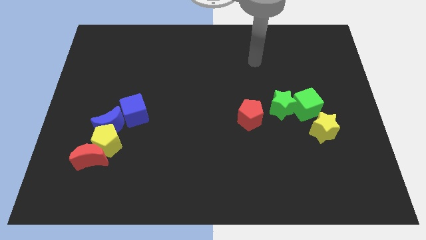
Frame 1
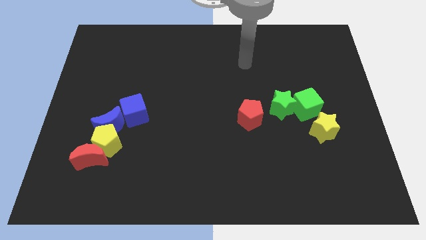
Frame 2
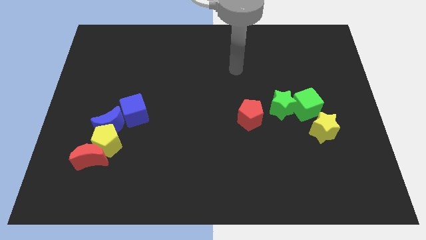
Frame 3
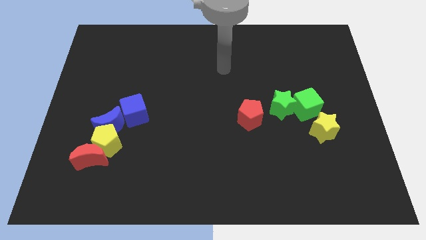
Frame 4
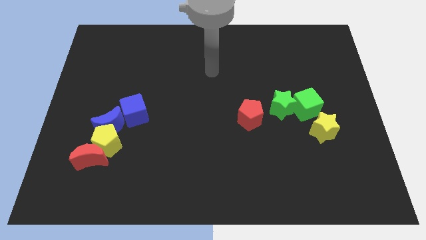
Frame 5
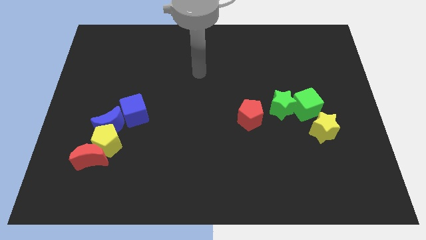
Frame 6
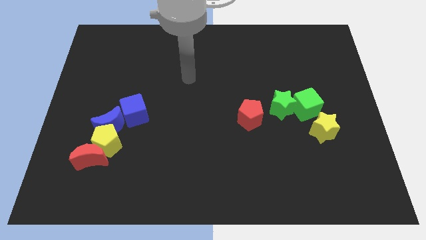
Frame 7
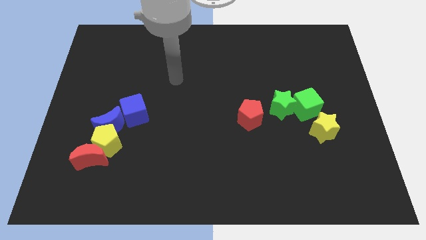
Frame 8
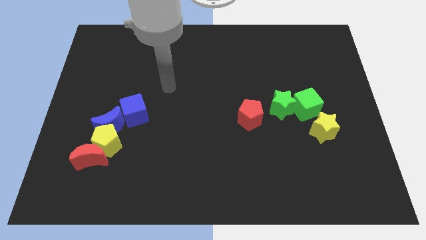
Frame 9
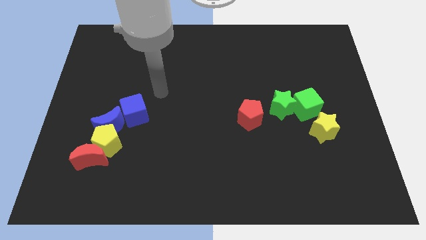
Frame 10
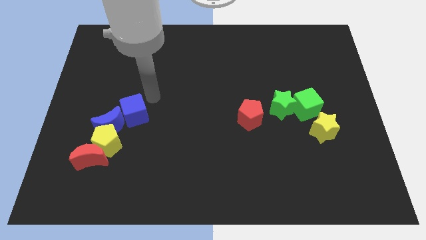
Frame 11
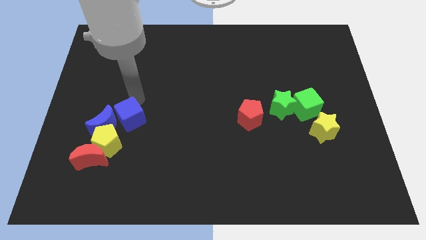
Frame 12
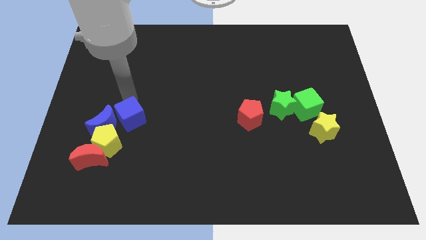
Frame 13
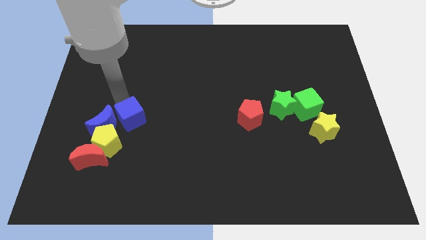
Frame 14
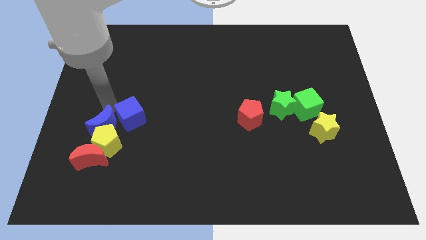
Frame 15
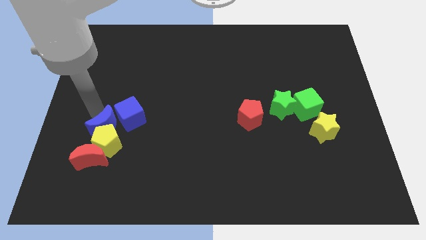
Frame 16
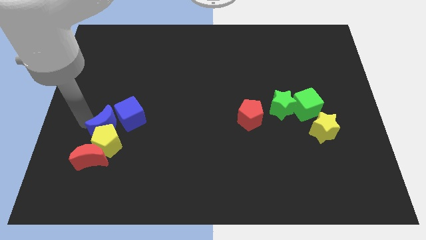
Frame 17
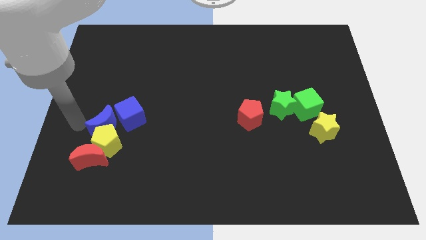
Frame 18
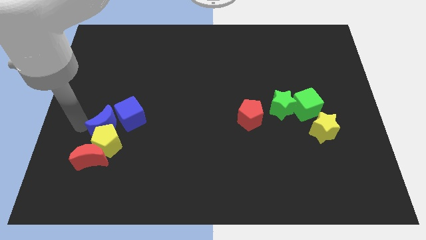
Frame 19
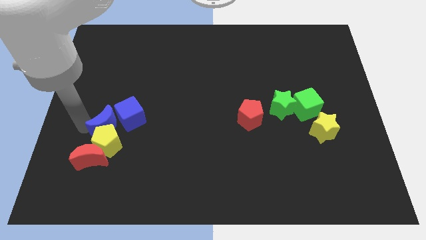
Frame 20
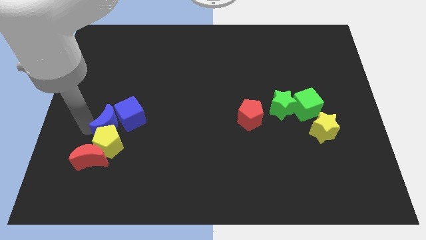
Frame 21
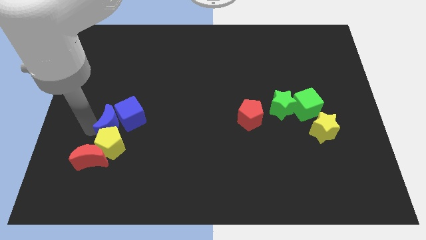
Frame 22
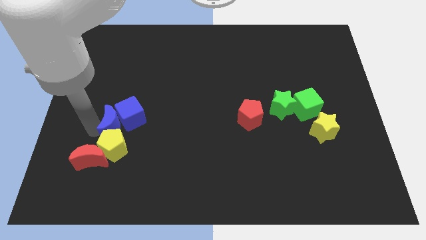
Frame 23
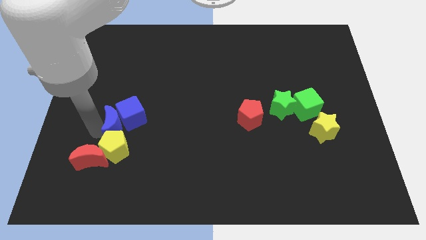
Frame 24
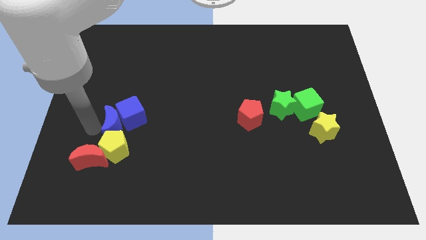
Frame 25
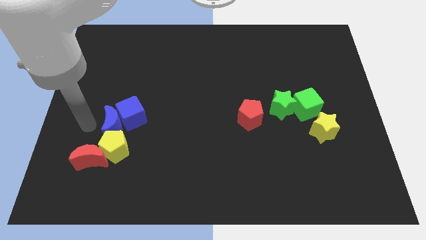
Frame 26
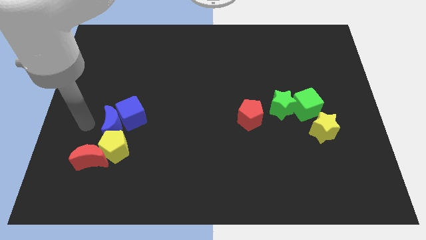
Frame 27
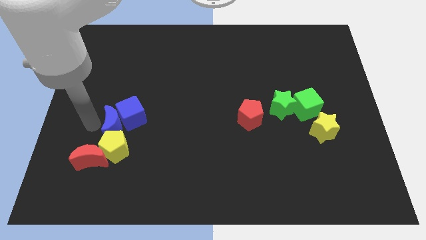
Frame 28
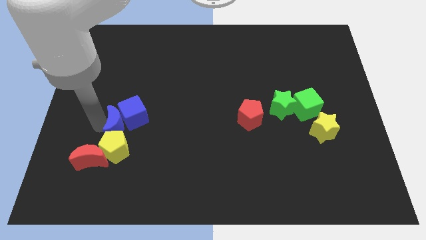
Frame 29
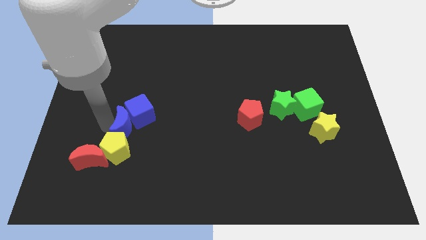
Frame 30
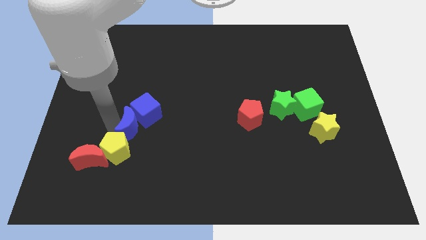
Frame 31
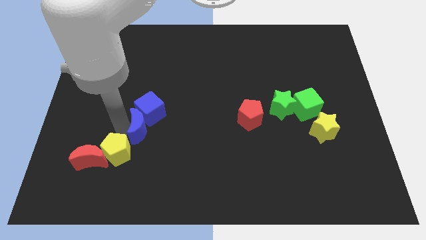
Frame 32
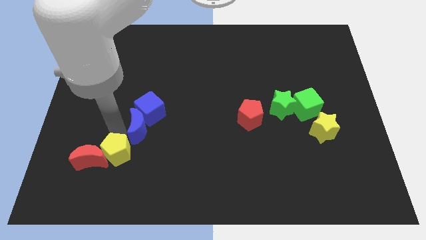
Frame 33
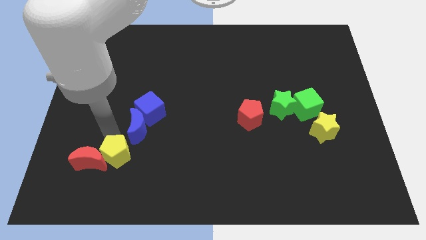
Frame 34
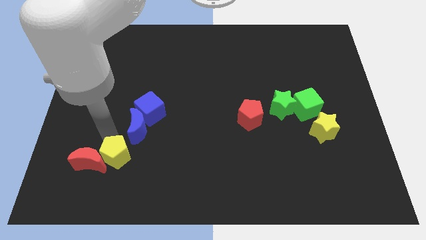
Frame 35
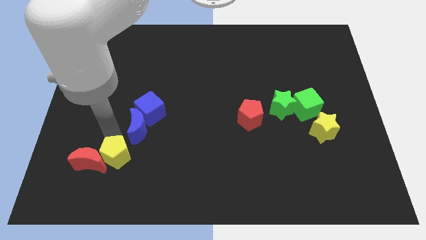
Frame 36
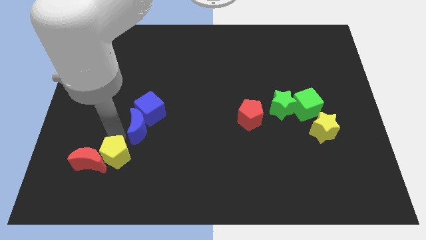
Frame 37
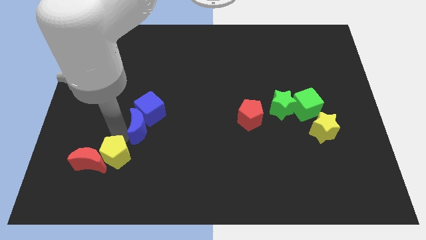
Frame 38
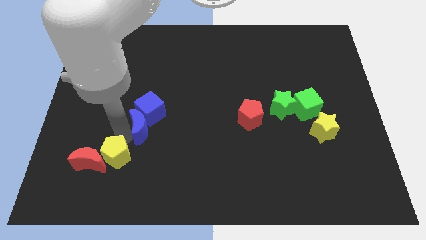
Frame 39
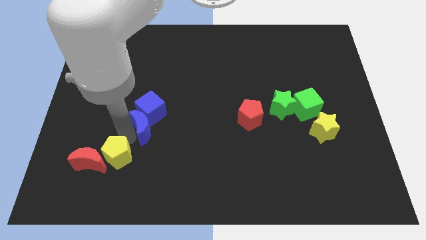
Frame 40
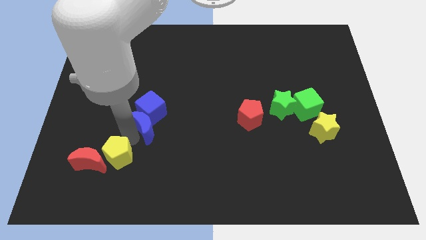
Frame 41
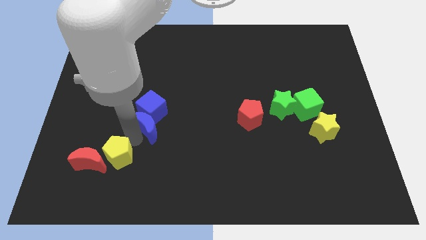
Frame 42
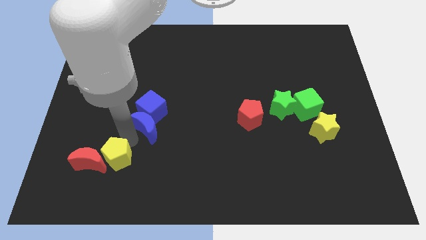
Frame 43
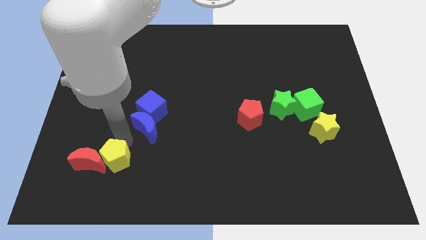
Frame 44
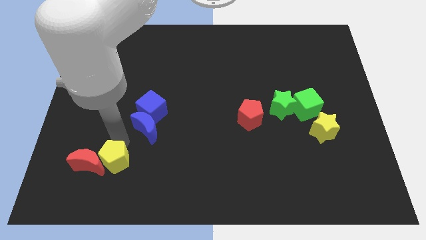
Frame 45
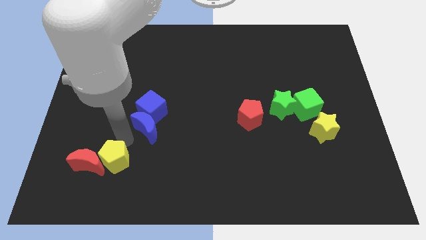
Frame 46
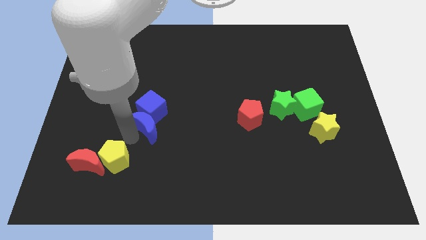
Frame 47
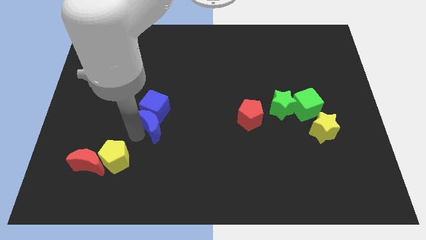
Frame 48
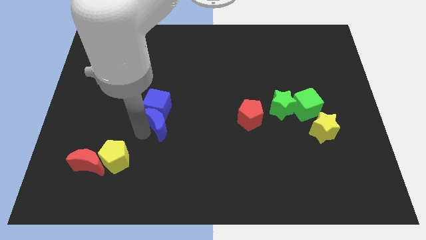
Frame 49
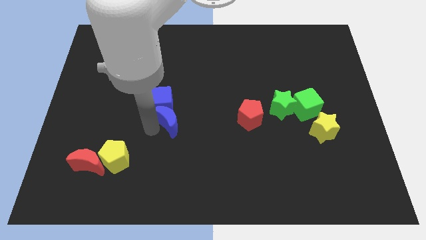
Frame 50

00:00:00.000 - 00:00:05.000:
move the blue moon to the middle

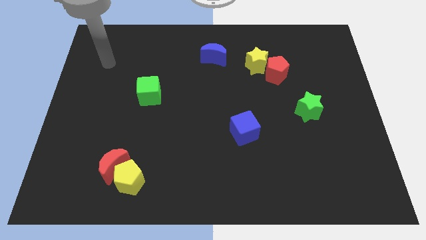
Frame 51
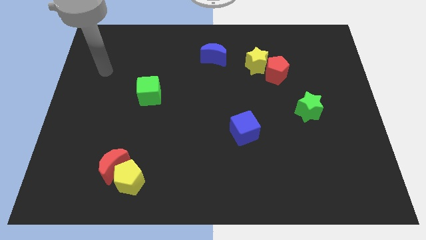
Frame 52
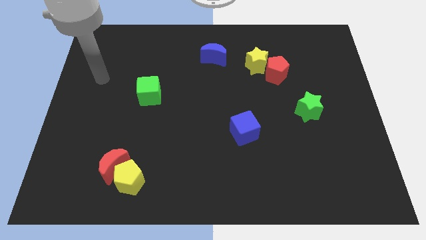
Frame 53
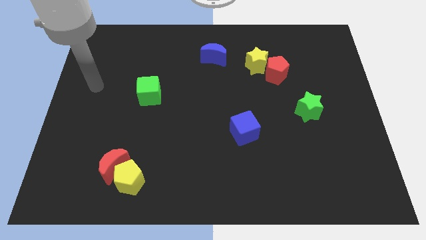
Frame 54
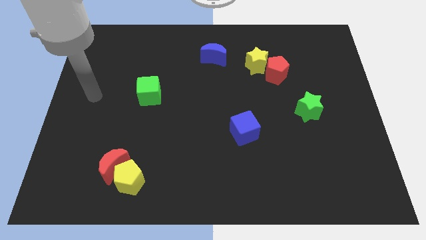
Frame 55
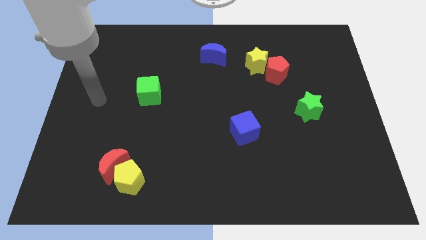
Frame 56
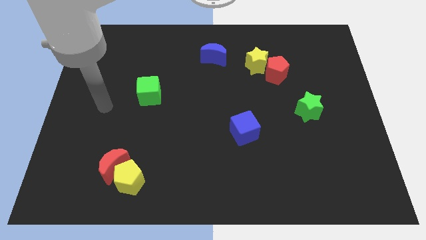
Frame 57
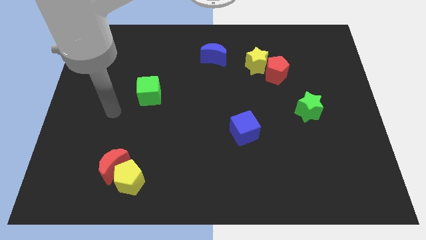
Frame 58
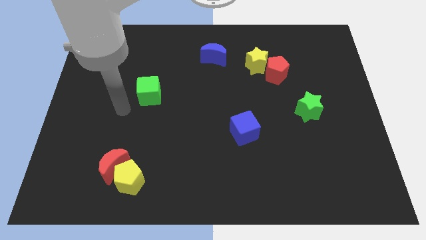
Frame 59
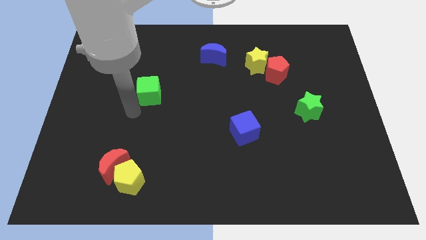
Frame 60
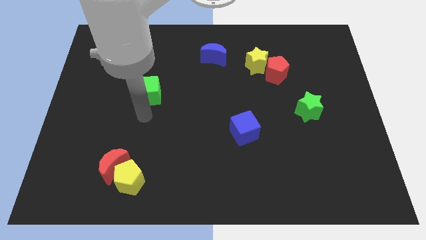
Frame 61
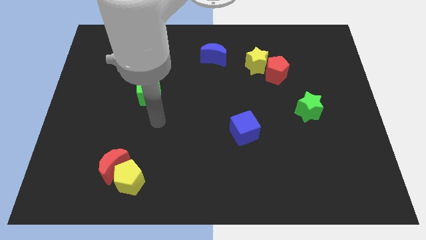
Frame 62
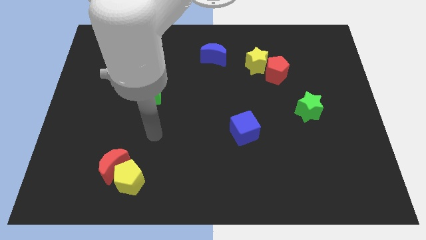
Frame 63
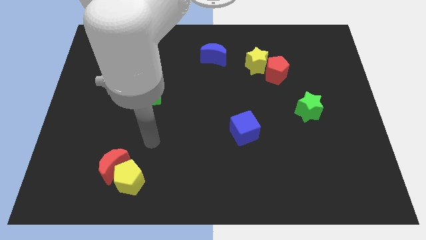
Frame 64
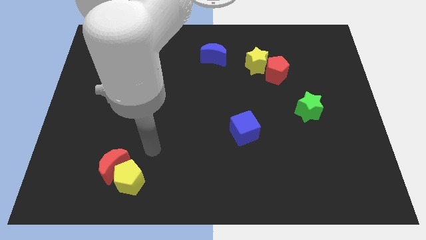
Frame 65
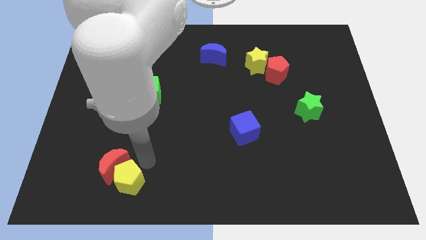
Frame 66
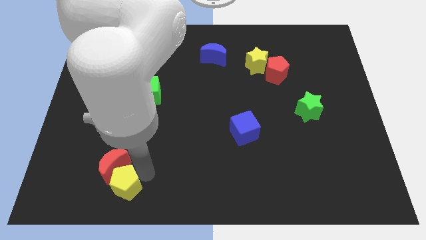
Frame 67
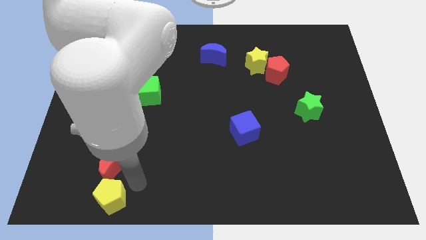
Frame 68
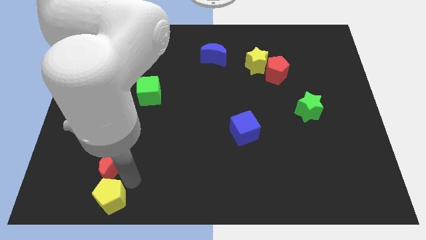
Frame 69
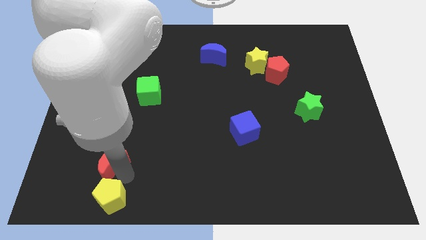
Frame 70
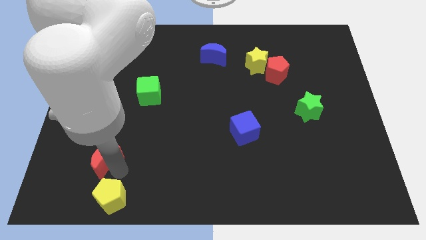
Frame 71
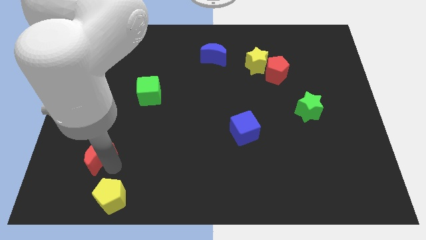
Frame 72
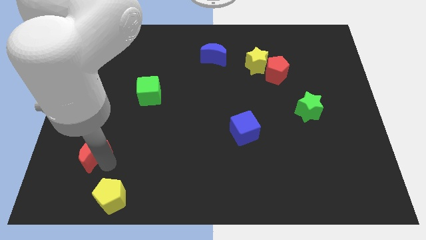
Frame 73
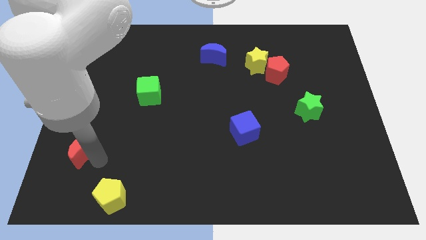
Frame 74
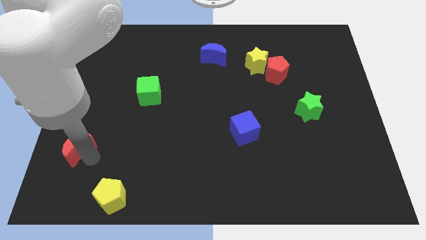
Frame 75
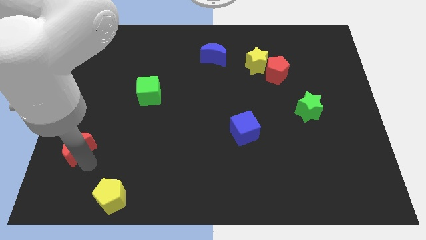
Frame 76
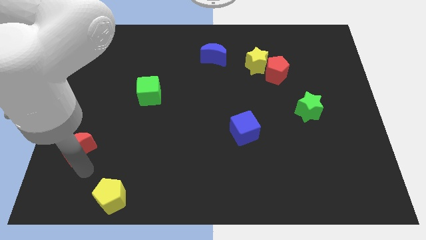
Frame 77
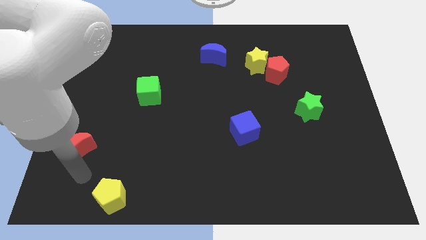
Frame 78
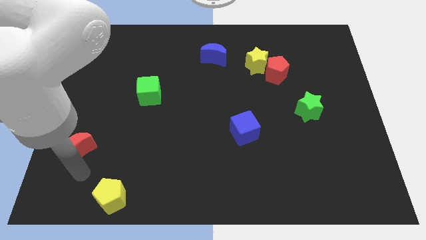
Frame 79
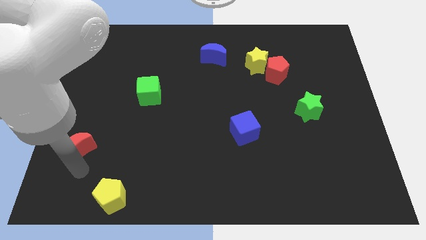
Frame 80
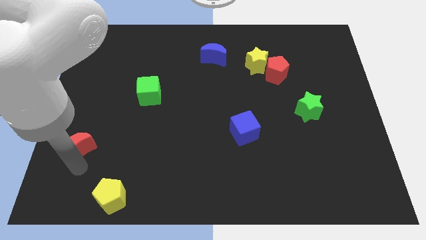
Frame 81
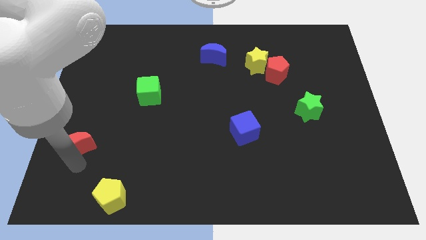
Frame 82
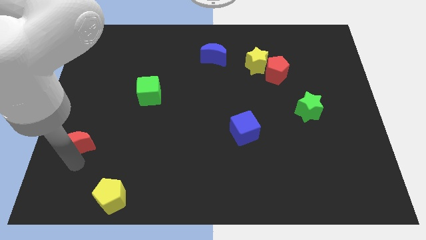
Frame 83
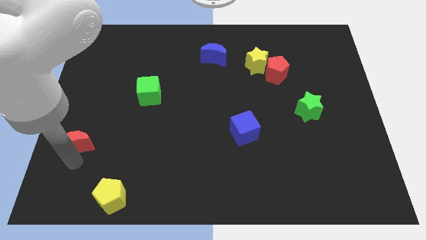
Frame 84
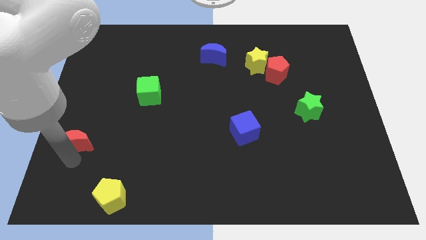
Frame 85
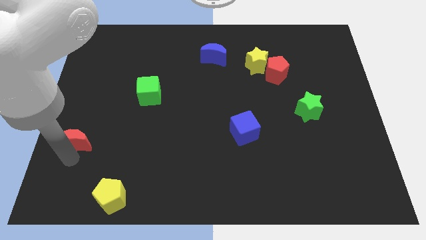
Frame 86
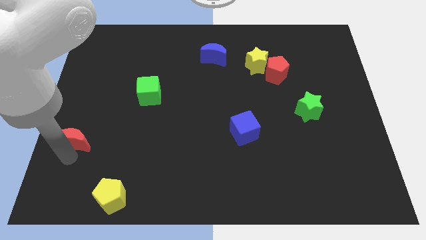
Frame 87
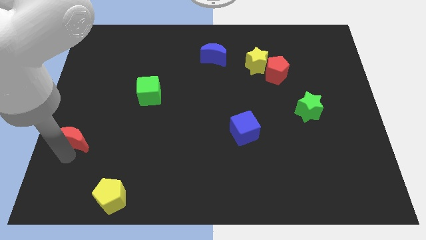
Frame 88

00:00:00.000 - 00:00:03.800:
move the red moon to the center left
